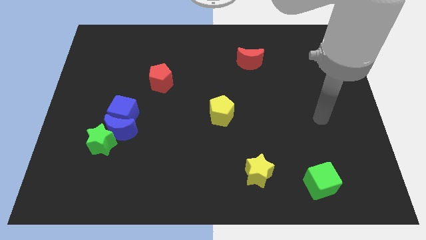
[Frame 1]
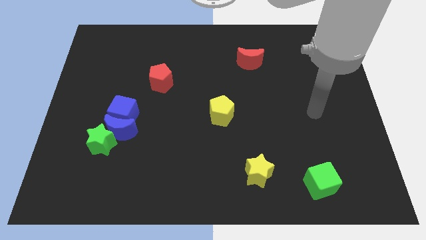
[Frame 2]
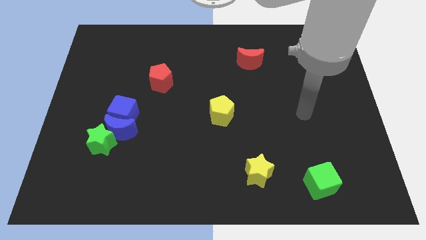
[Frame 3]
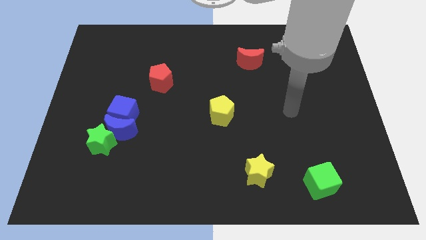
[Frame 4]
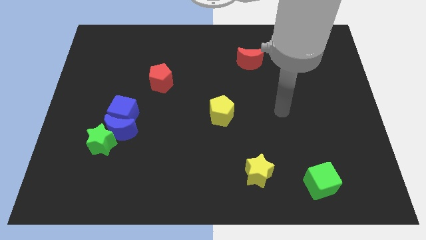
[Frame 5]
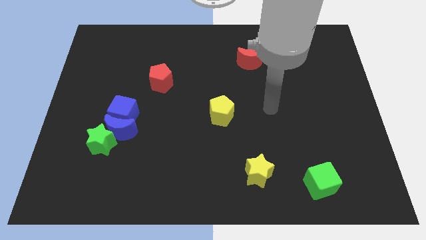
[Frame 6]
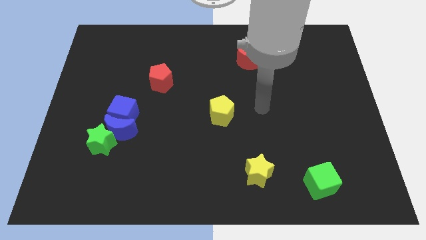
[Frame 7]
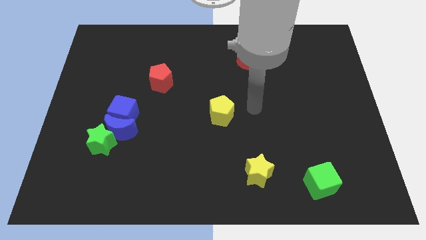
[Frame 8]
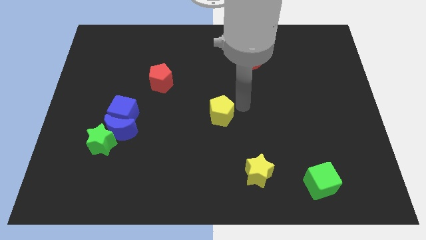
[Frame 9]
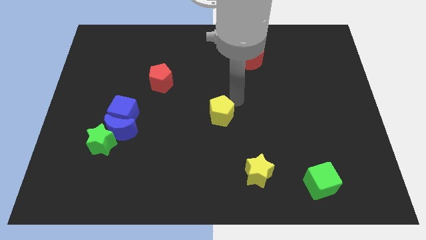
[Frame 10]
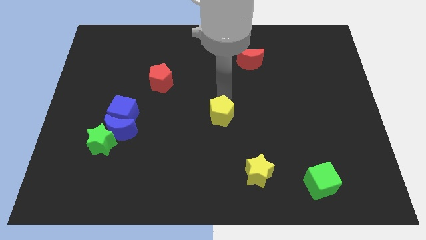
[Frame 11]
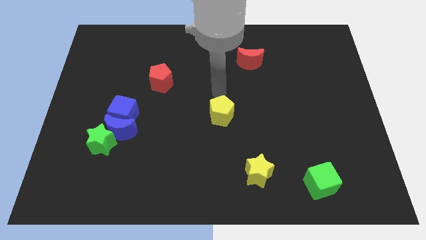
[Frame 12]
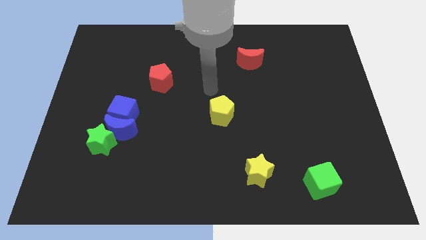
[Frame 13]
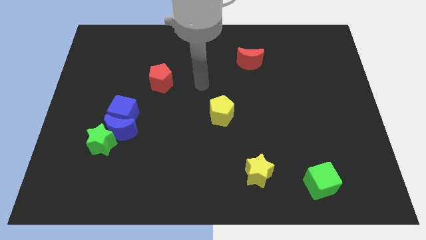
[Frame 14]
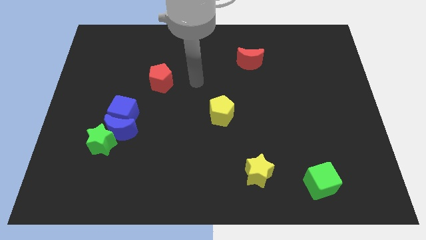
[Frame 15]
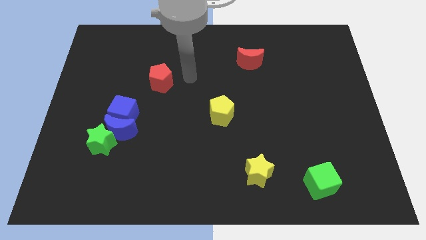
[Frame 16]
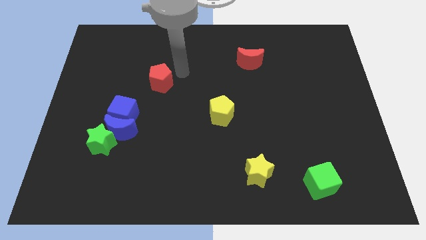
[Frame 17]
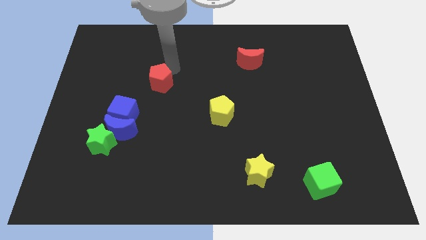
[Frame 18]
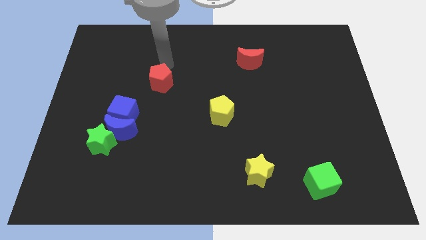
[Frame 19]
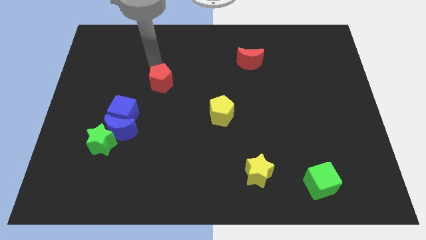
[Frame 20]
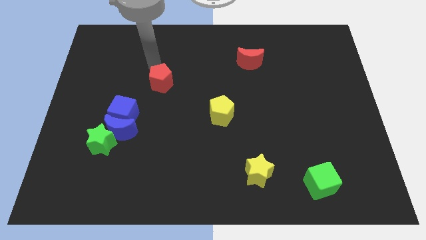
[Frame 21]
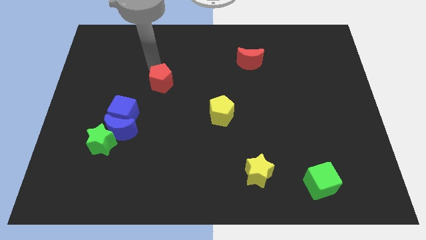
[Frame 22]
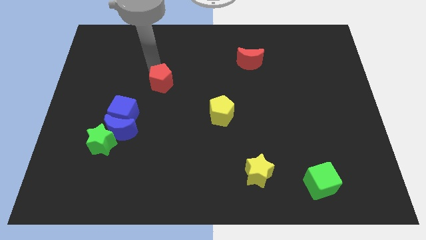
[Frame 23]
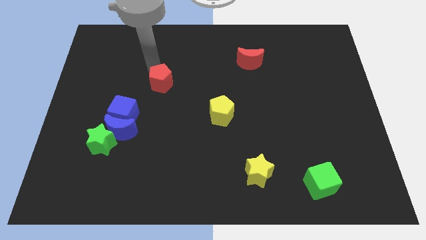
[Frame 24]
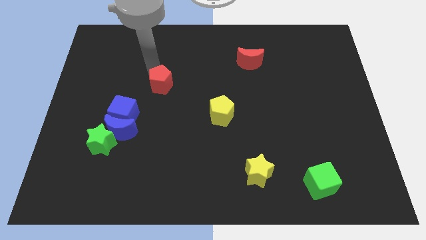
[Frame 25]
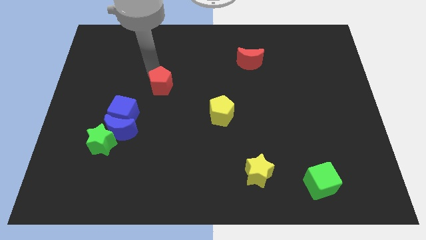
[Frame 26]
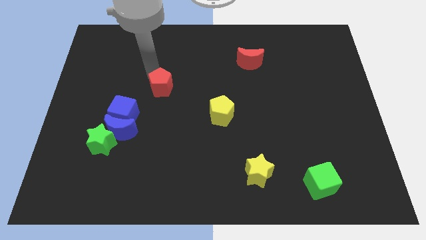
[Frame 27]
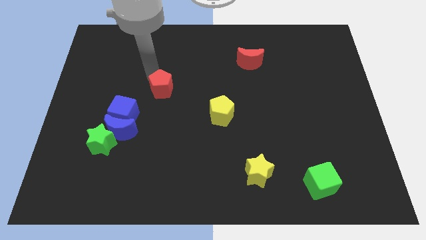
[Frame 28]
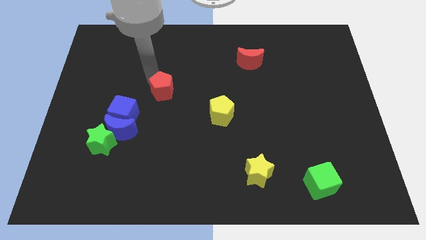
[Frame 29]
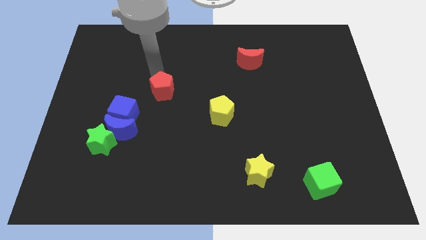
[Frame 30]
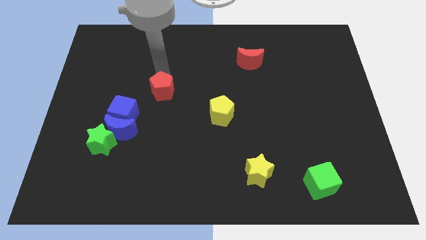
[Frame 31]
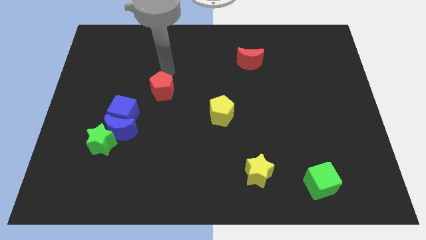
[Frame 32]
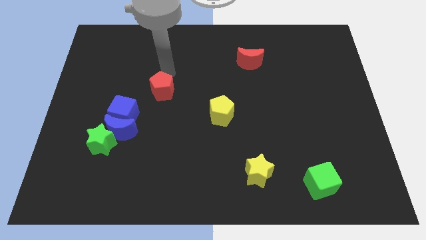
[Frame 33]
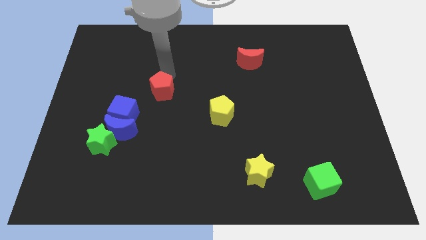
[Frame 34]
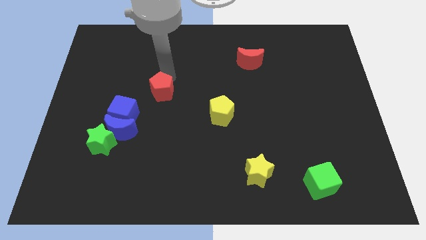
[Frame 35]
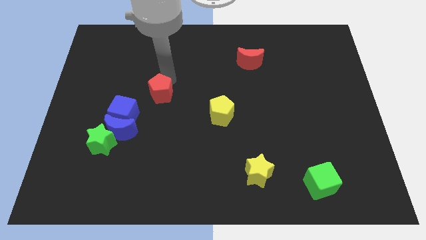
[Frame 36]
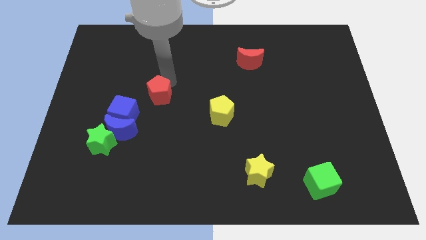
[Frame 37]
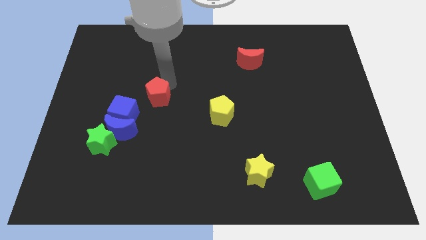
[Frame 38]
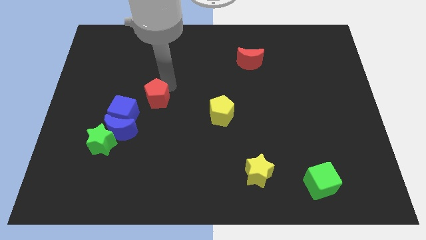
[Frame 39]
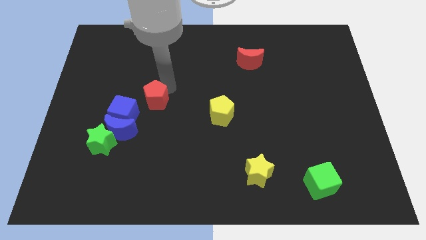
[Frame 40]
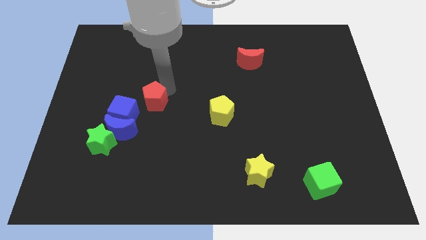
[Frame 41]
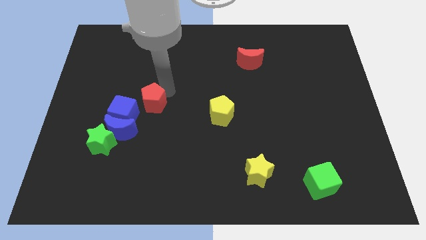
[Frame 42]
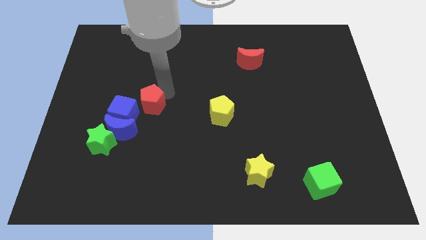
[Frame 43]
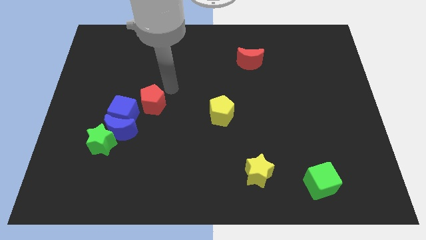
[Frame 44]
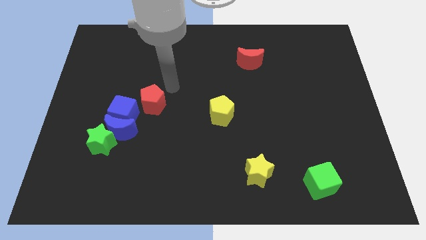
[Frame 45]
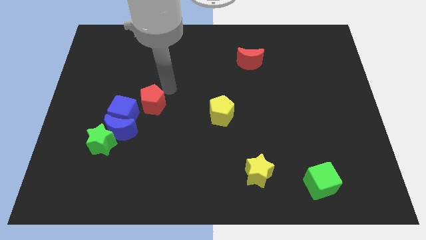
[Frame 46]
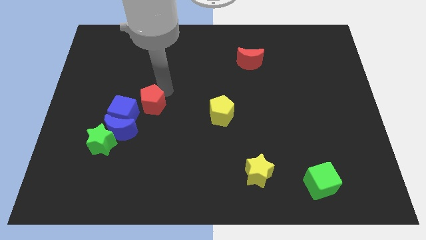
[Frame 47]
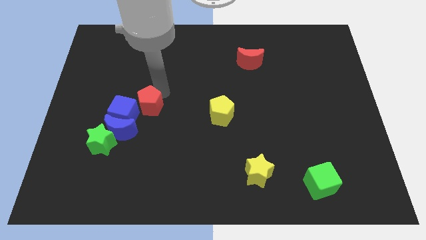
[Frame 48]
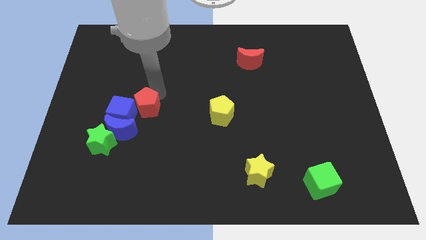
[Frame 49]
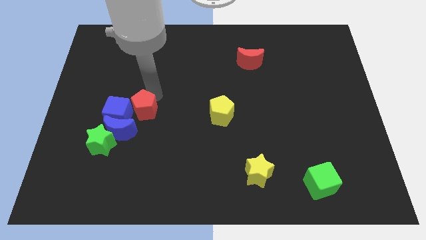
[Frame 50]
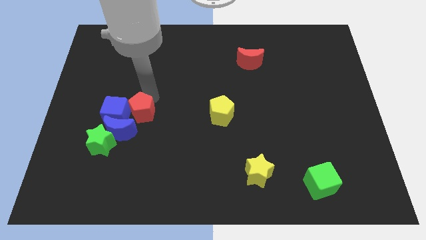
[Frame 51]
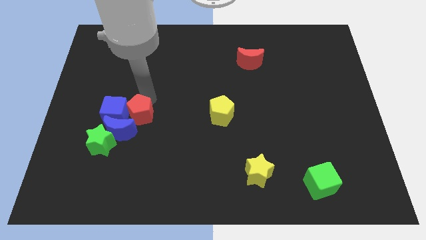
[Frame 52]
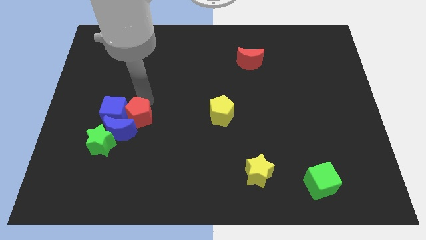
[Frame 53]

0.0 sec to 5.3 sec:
move the red pentagon to the blue moon

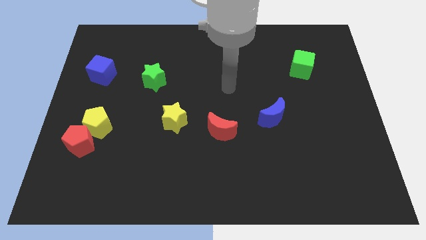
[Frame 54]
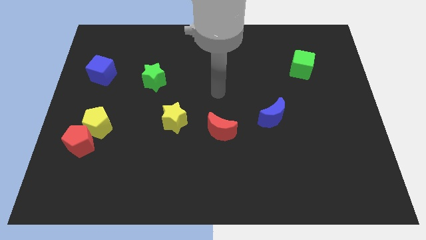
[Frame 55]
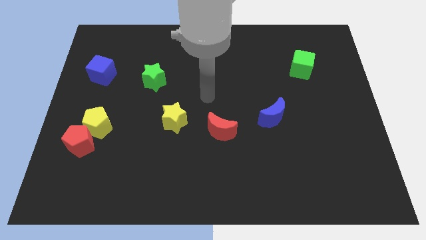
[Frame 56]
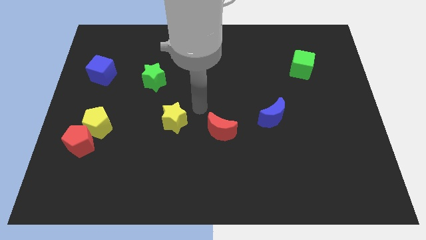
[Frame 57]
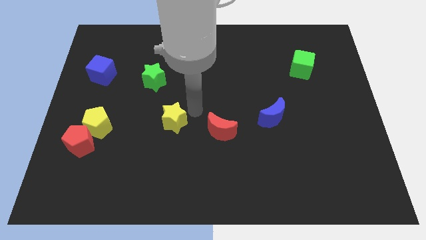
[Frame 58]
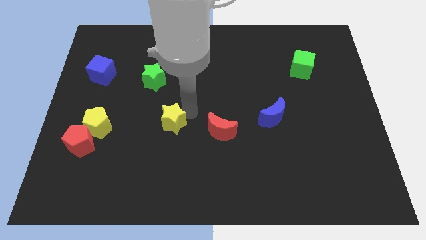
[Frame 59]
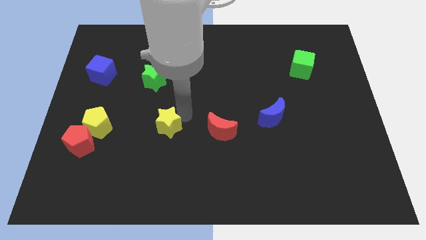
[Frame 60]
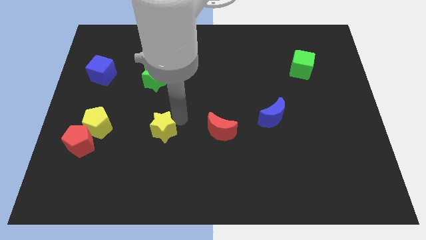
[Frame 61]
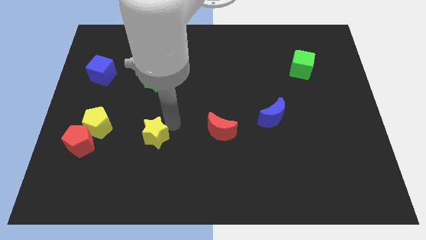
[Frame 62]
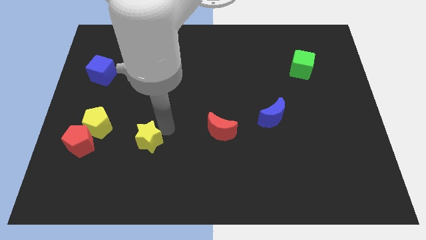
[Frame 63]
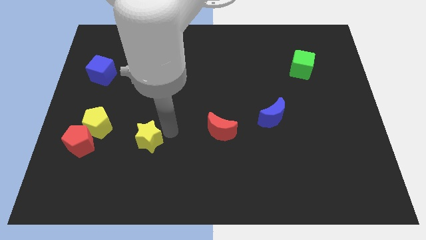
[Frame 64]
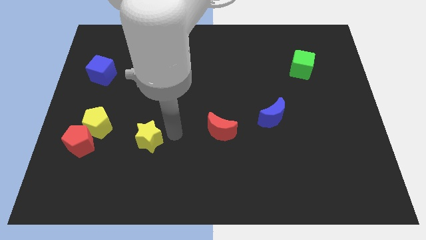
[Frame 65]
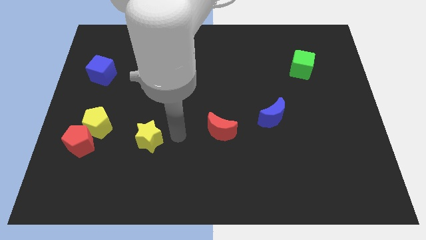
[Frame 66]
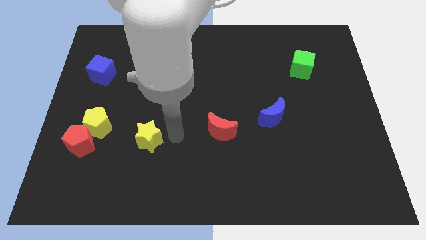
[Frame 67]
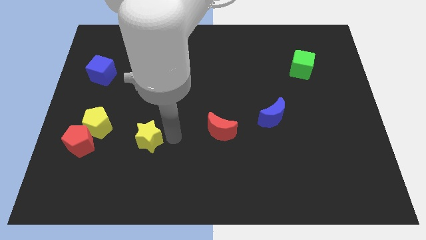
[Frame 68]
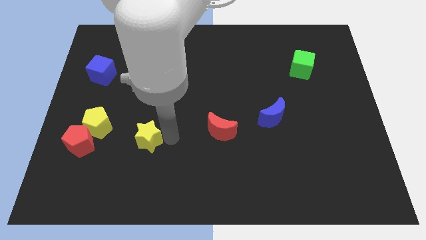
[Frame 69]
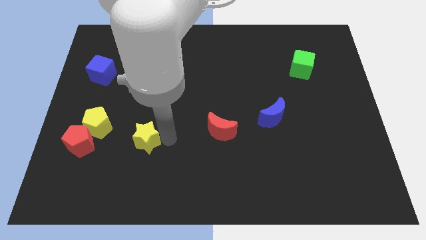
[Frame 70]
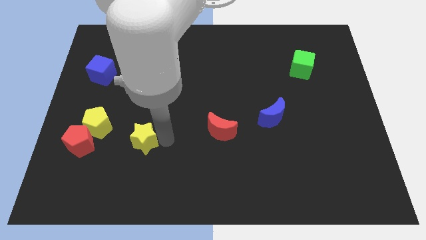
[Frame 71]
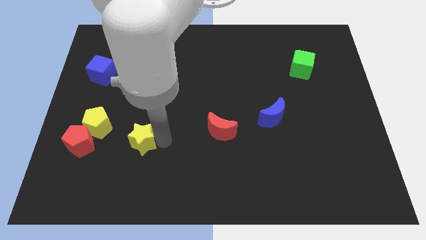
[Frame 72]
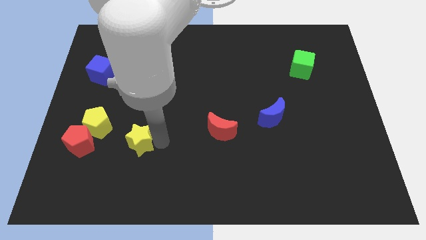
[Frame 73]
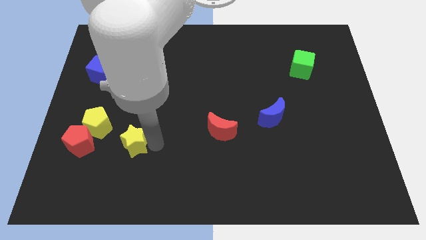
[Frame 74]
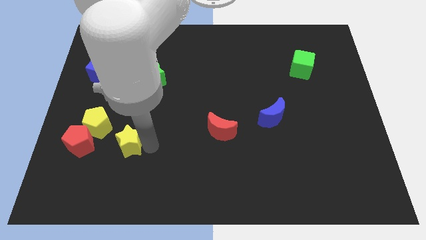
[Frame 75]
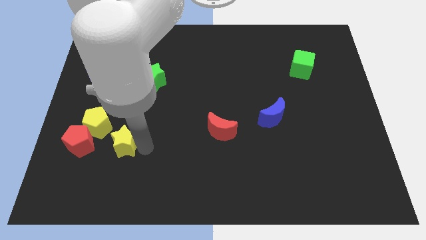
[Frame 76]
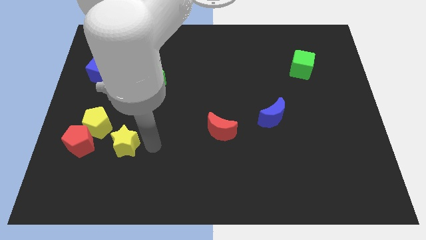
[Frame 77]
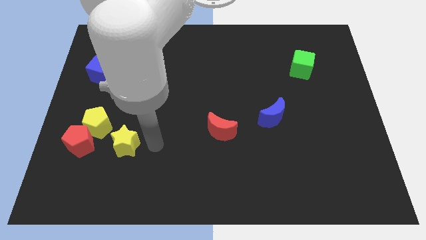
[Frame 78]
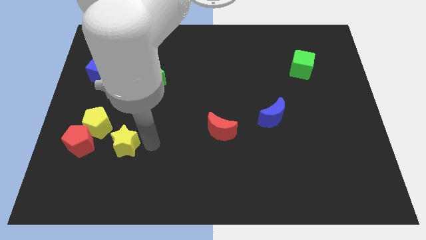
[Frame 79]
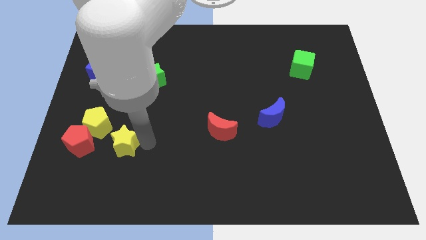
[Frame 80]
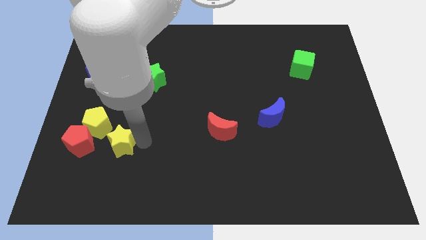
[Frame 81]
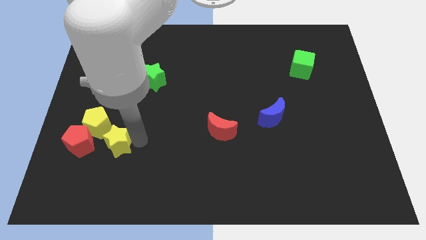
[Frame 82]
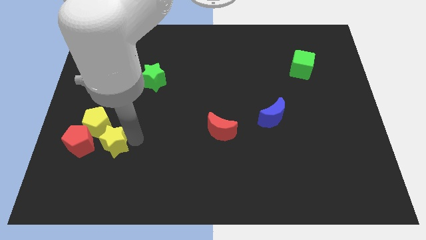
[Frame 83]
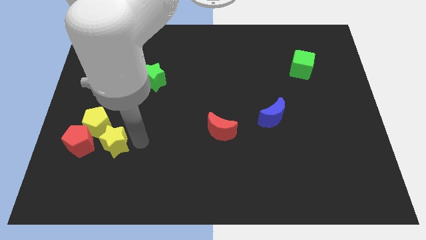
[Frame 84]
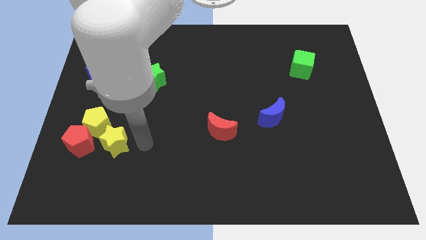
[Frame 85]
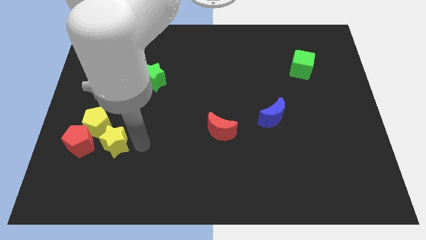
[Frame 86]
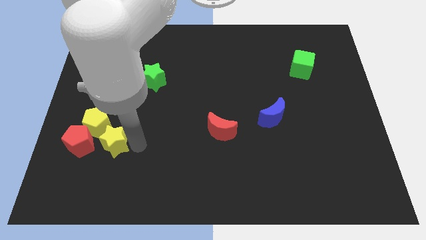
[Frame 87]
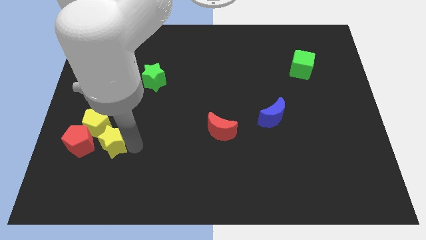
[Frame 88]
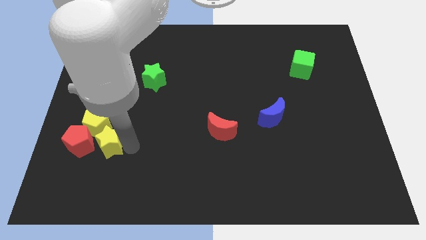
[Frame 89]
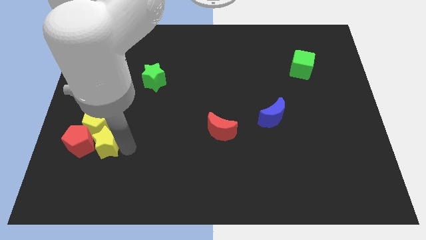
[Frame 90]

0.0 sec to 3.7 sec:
move the yellow star close to the red pentagon
